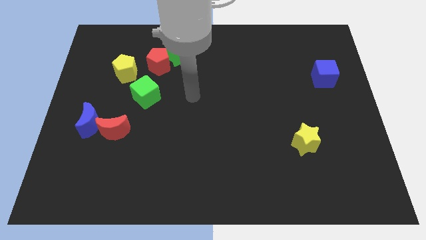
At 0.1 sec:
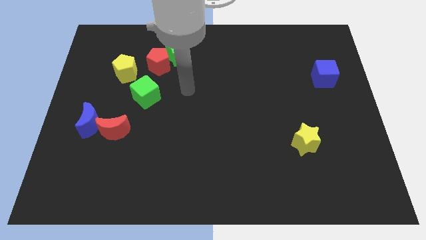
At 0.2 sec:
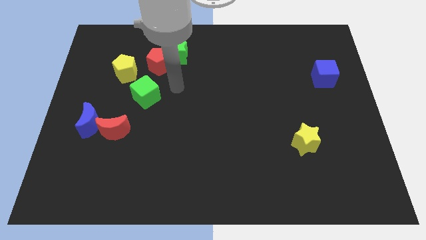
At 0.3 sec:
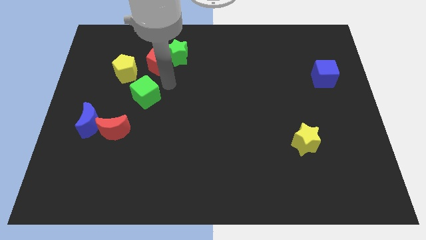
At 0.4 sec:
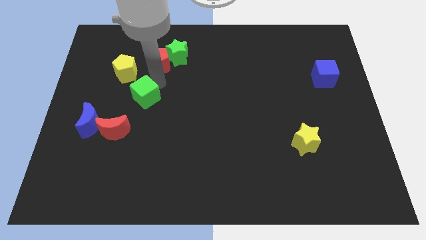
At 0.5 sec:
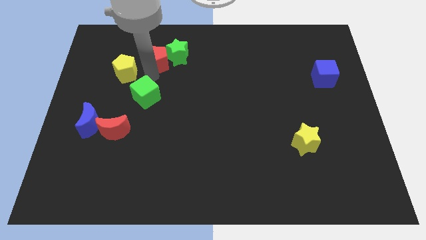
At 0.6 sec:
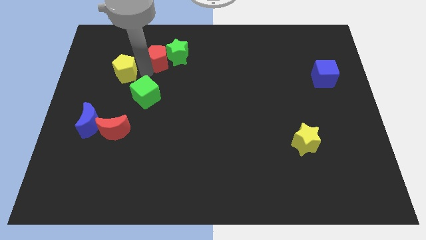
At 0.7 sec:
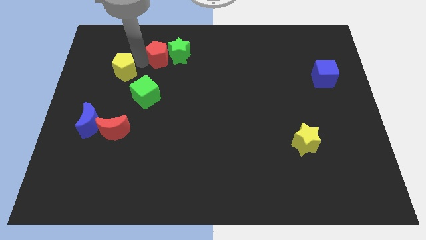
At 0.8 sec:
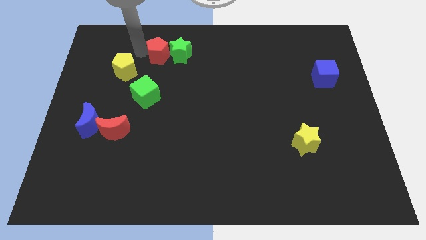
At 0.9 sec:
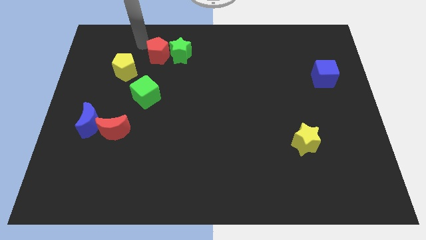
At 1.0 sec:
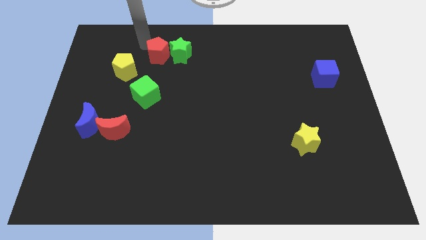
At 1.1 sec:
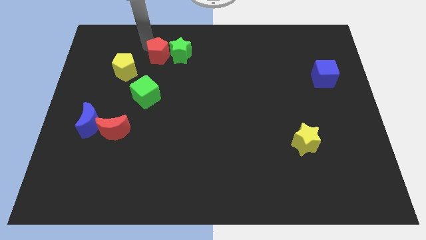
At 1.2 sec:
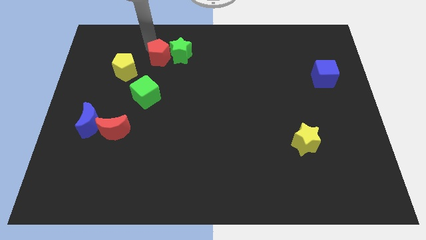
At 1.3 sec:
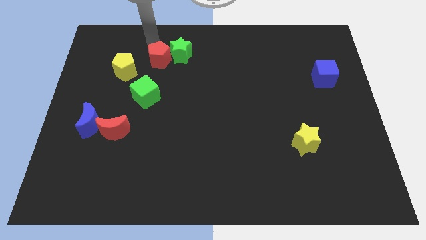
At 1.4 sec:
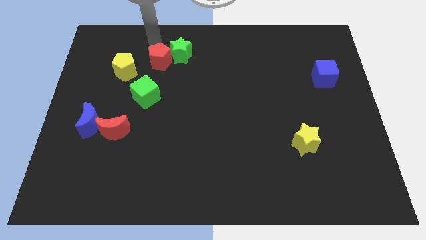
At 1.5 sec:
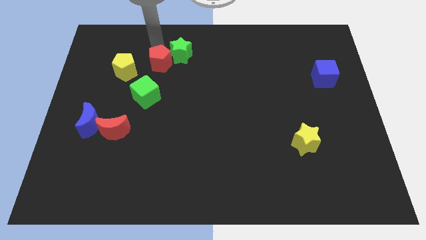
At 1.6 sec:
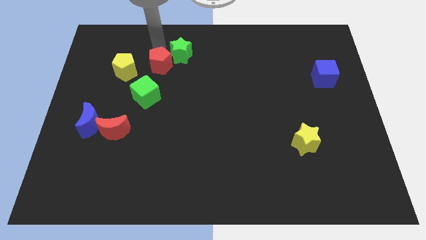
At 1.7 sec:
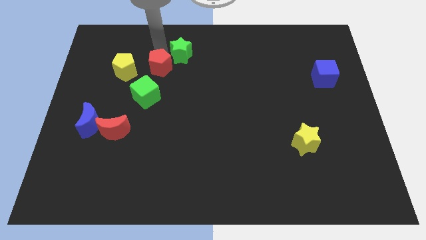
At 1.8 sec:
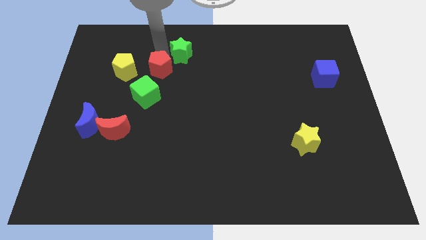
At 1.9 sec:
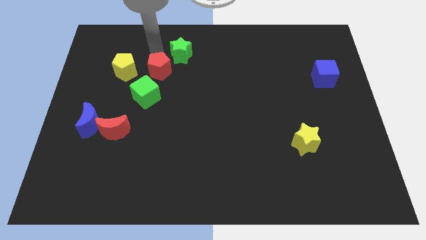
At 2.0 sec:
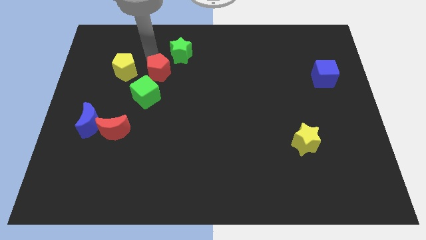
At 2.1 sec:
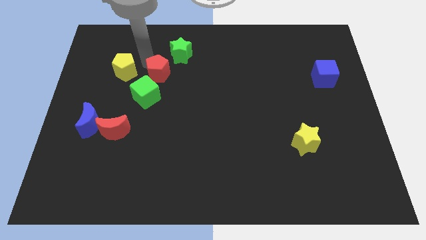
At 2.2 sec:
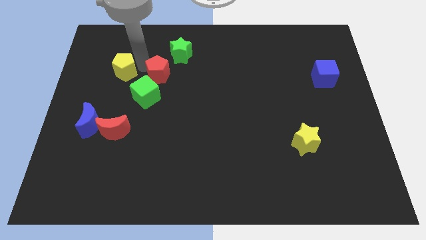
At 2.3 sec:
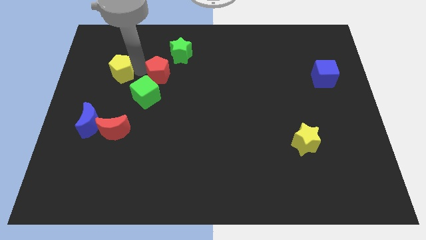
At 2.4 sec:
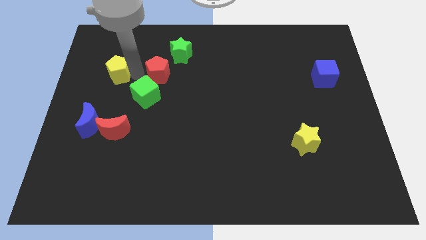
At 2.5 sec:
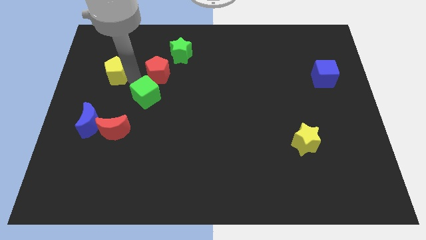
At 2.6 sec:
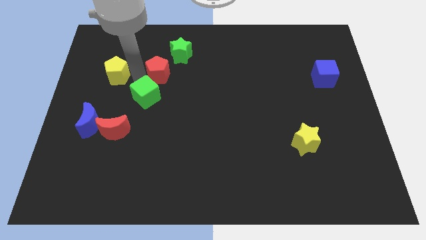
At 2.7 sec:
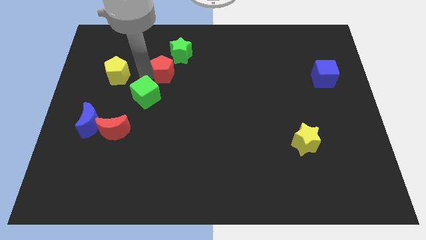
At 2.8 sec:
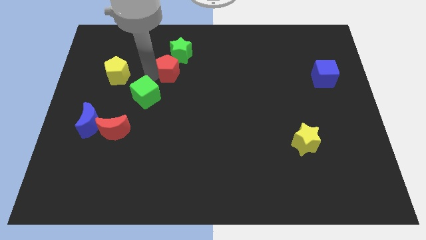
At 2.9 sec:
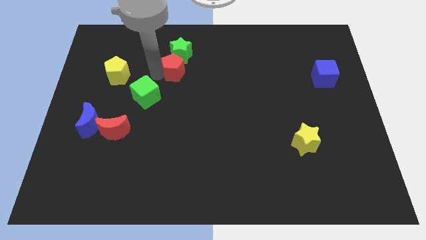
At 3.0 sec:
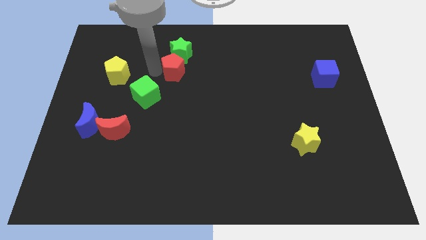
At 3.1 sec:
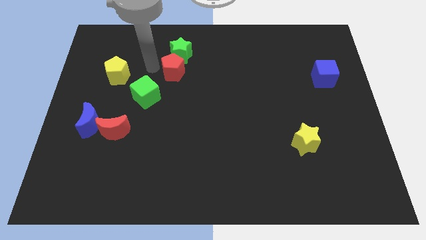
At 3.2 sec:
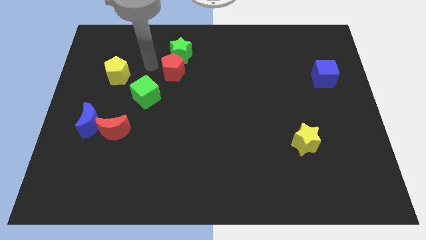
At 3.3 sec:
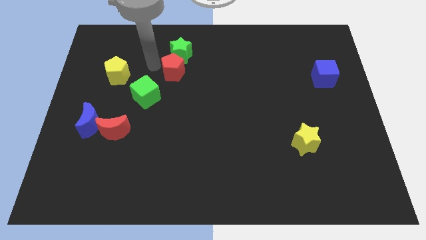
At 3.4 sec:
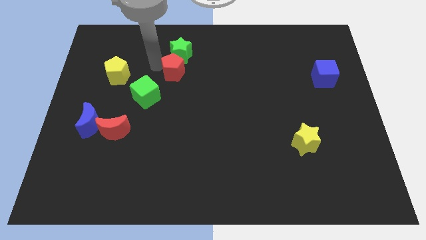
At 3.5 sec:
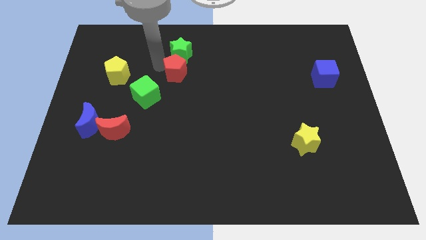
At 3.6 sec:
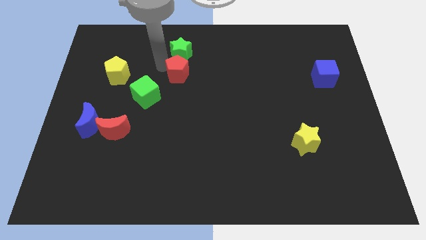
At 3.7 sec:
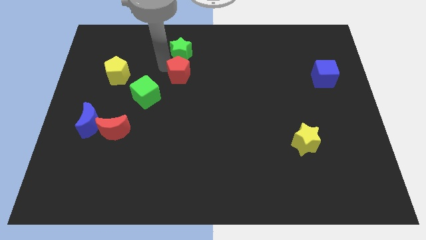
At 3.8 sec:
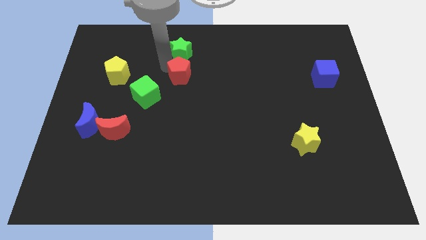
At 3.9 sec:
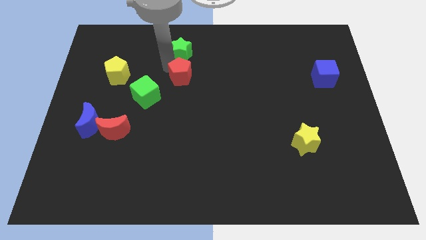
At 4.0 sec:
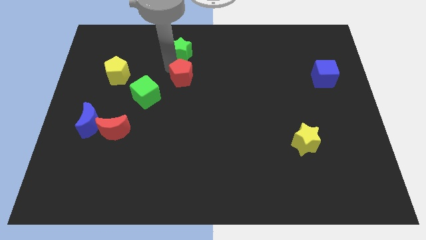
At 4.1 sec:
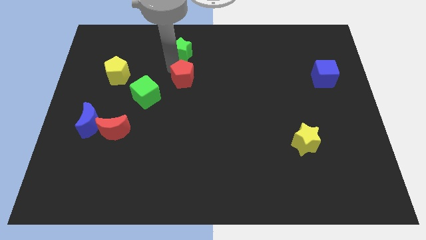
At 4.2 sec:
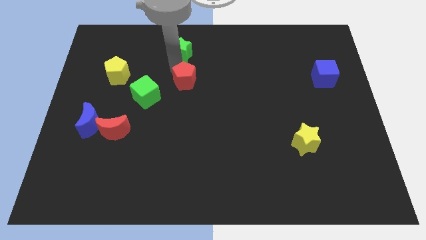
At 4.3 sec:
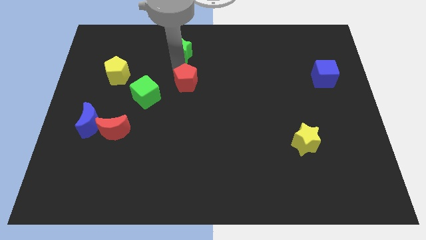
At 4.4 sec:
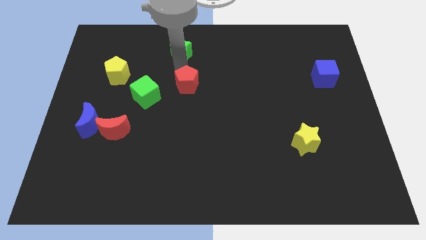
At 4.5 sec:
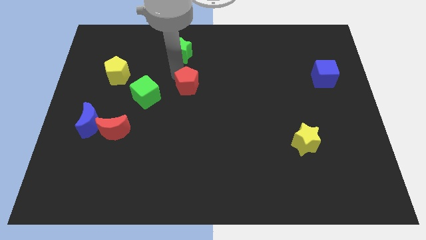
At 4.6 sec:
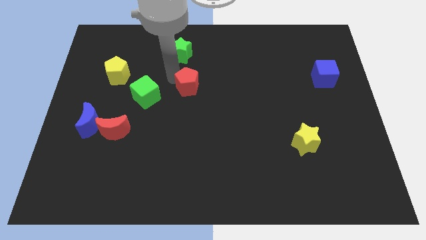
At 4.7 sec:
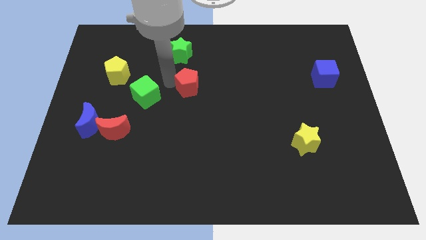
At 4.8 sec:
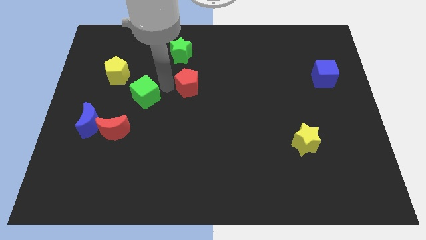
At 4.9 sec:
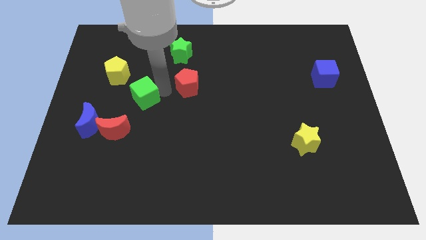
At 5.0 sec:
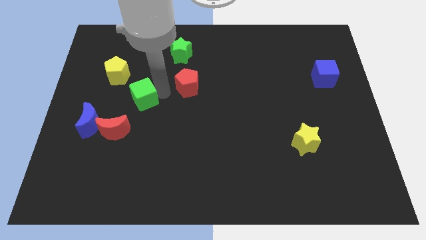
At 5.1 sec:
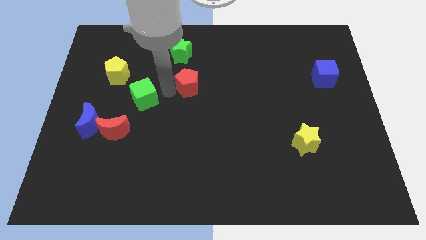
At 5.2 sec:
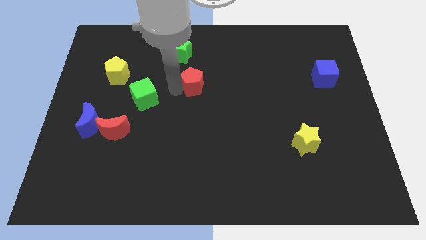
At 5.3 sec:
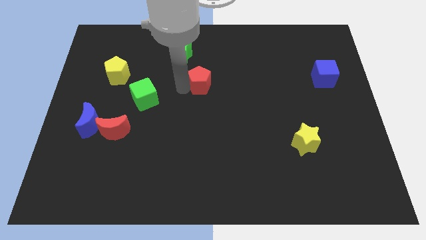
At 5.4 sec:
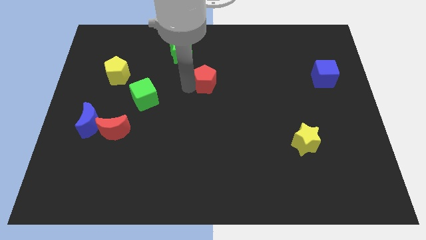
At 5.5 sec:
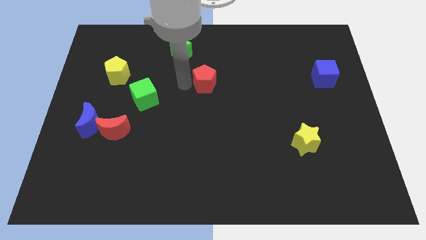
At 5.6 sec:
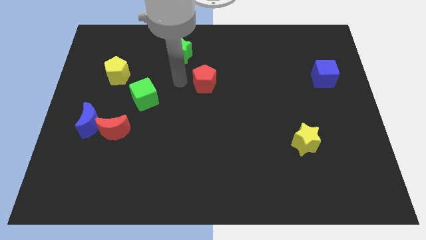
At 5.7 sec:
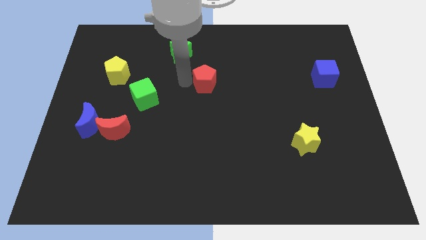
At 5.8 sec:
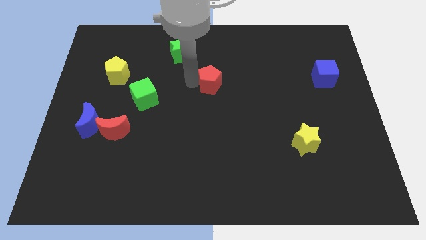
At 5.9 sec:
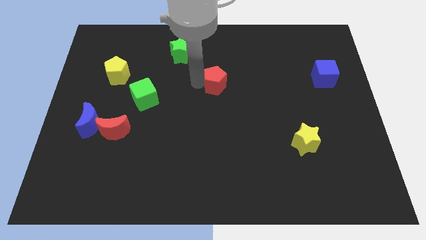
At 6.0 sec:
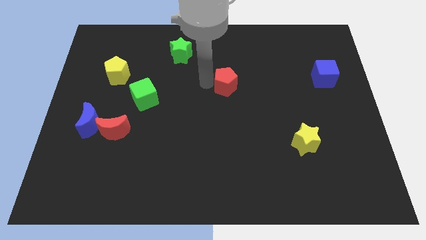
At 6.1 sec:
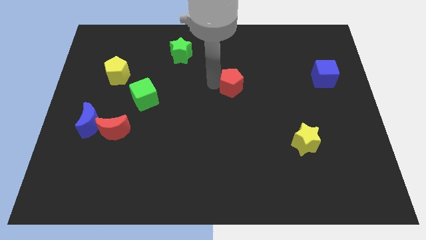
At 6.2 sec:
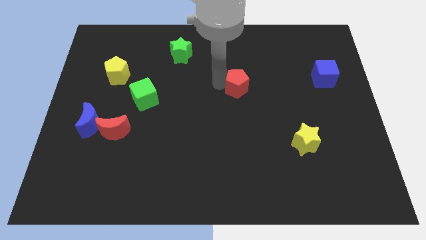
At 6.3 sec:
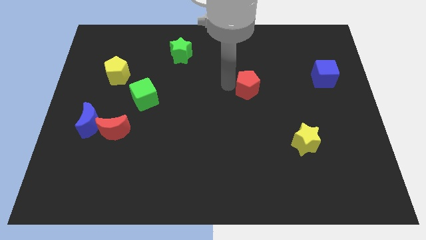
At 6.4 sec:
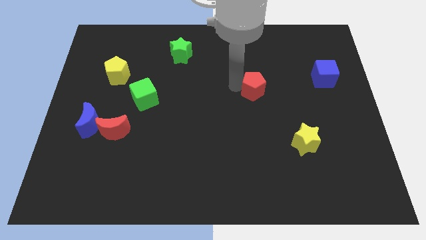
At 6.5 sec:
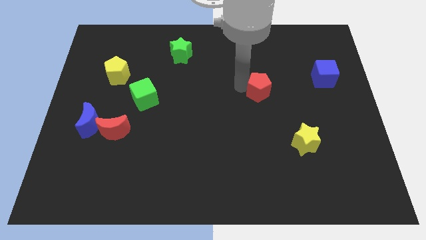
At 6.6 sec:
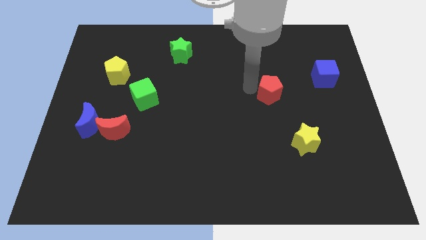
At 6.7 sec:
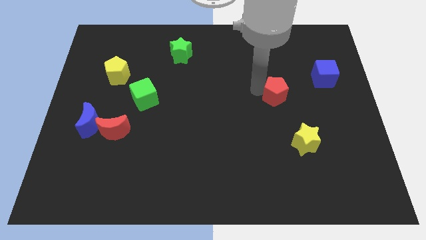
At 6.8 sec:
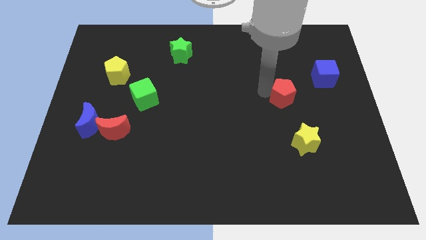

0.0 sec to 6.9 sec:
put the red pentagon to the top of the yellow star
